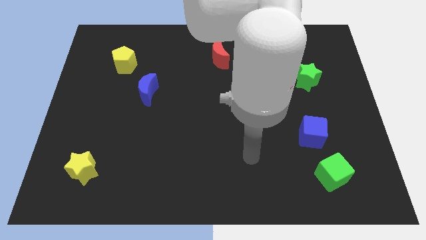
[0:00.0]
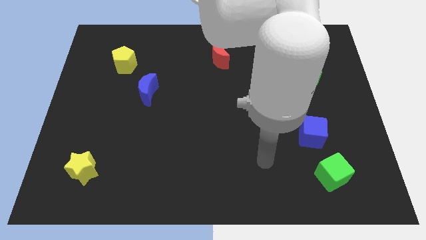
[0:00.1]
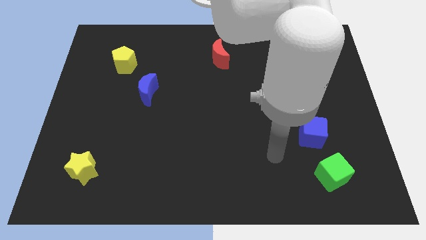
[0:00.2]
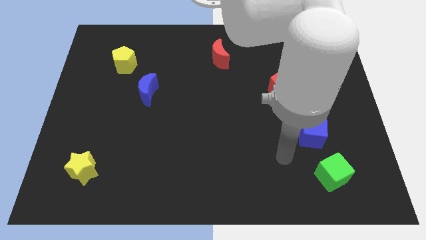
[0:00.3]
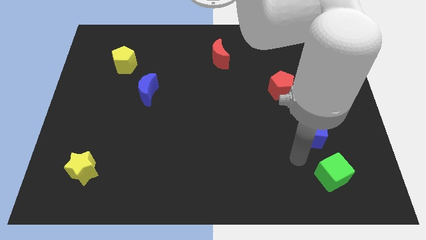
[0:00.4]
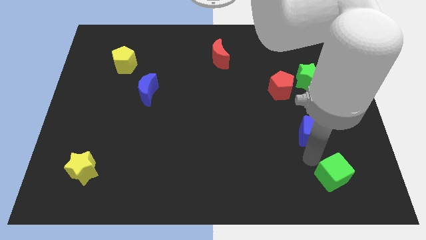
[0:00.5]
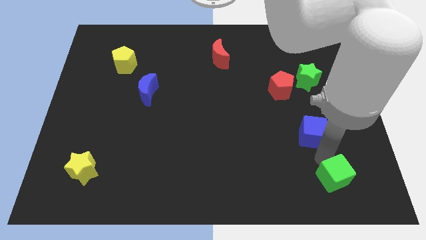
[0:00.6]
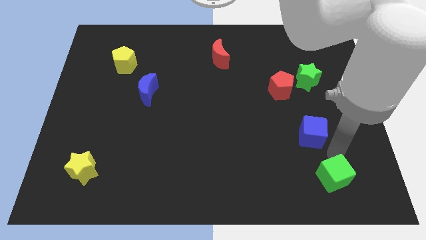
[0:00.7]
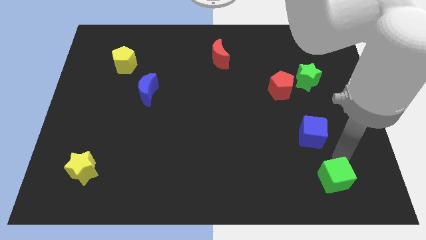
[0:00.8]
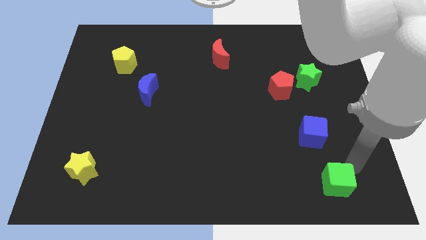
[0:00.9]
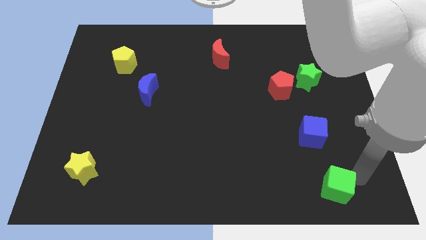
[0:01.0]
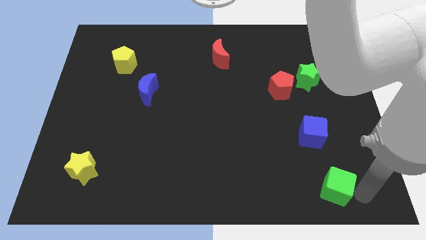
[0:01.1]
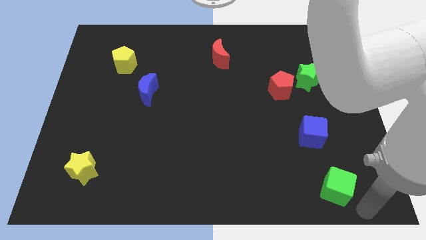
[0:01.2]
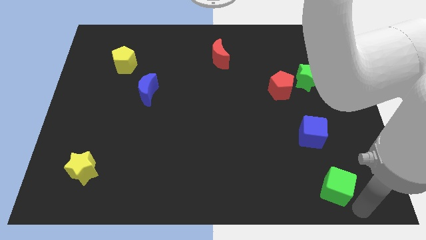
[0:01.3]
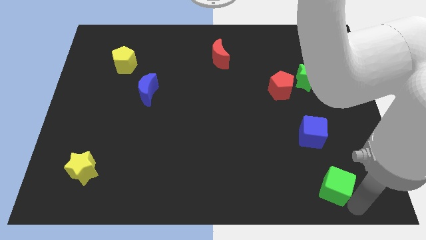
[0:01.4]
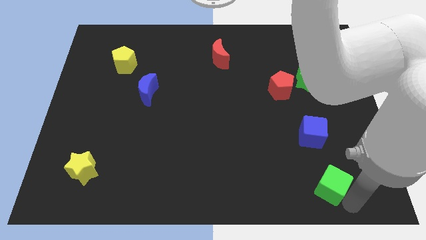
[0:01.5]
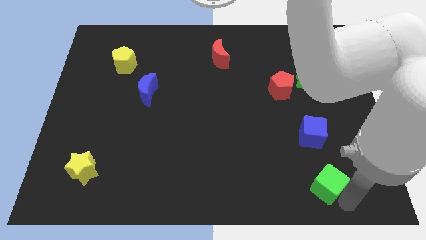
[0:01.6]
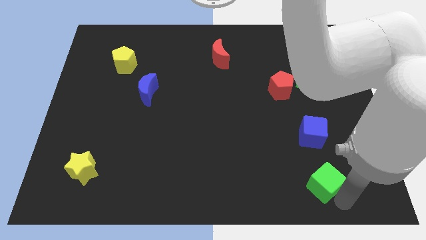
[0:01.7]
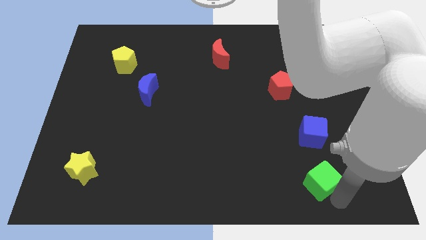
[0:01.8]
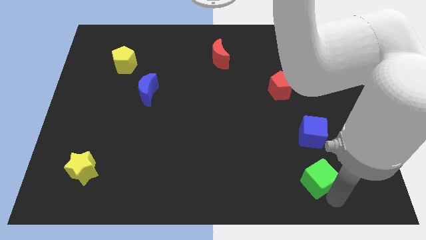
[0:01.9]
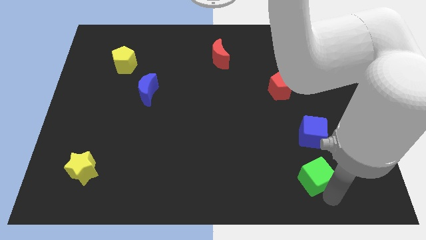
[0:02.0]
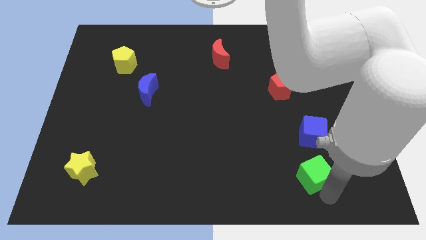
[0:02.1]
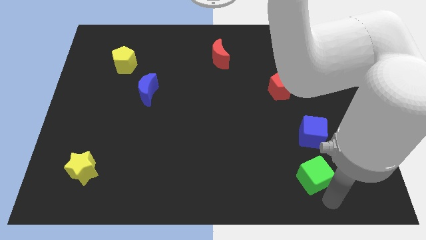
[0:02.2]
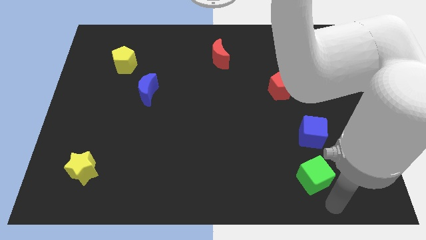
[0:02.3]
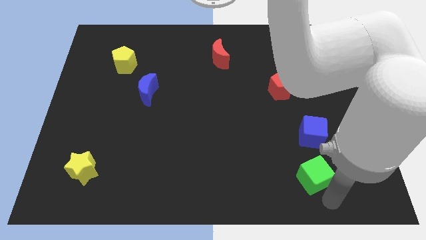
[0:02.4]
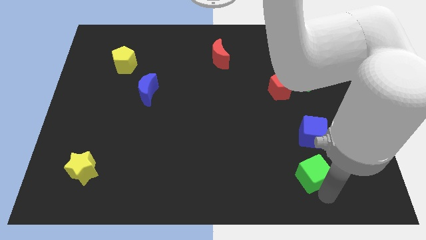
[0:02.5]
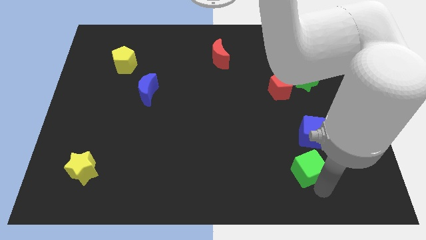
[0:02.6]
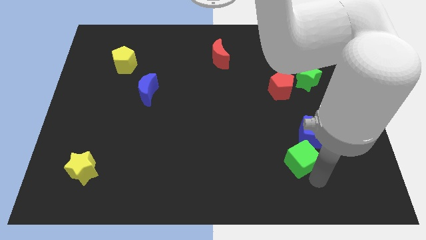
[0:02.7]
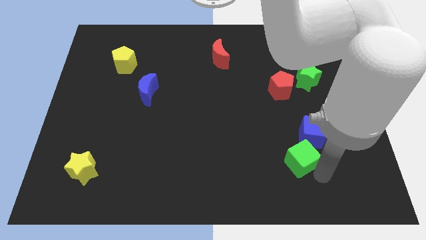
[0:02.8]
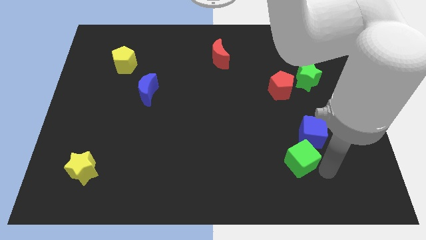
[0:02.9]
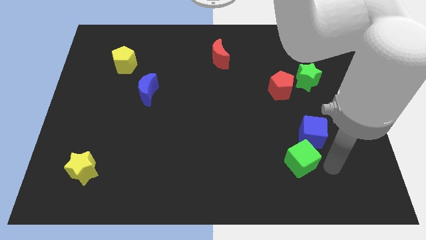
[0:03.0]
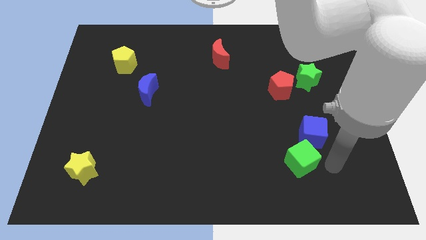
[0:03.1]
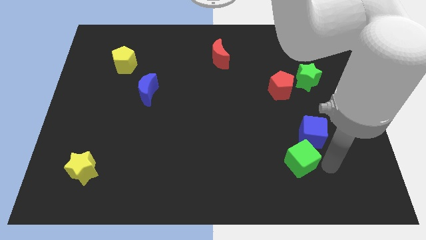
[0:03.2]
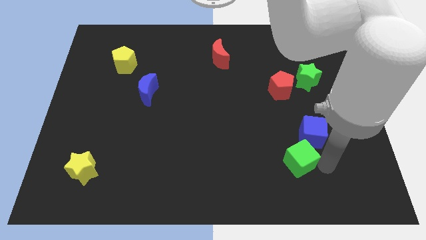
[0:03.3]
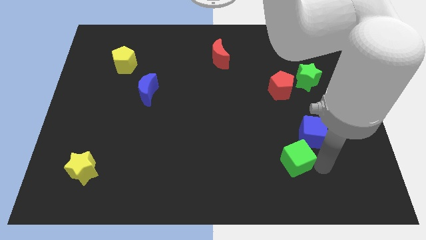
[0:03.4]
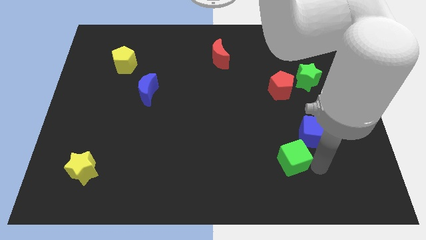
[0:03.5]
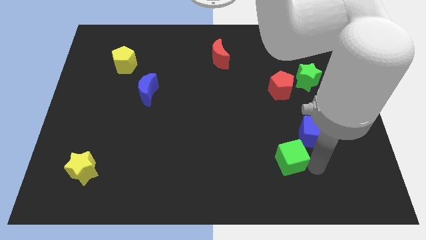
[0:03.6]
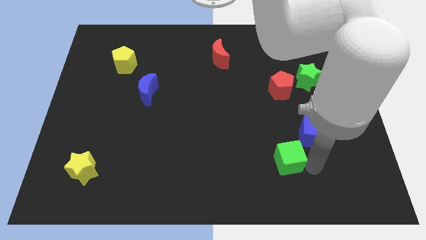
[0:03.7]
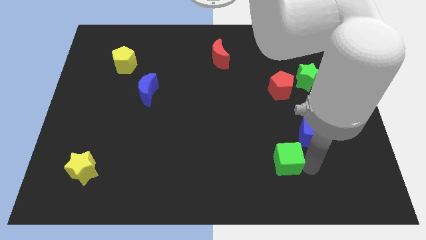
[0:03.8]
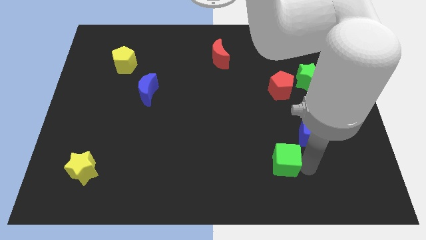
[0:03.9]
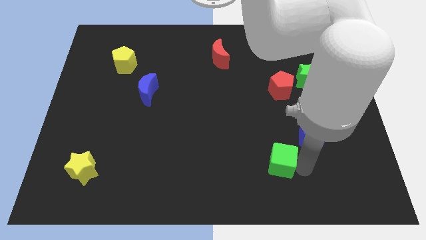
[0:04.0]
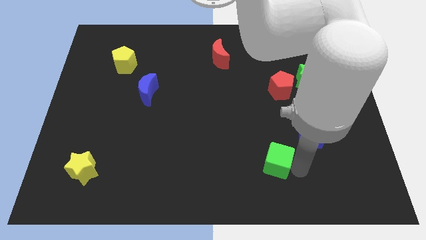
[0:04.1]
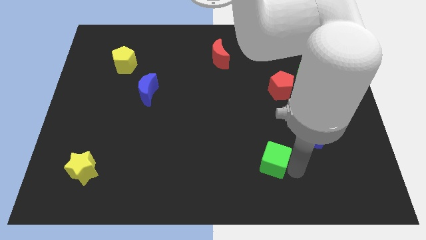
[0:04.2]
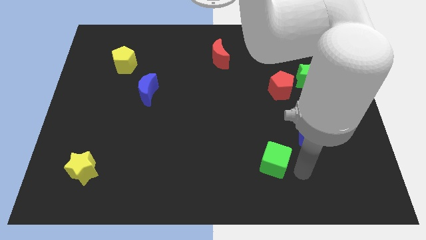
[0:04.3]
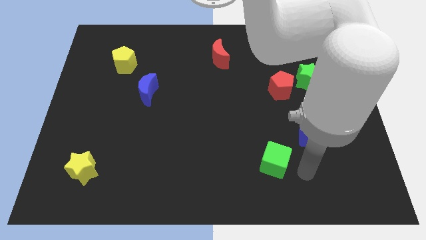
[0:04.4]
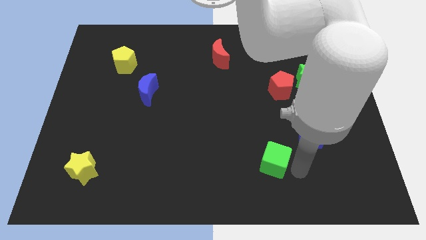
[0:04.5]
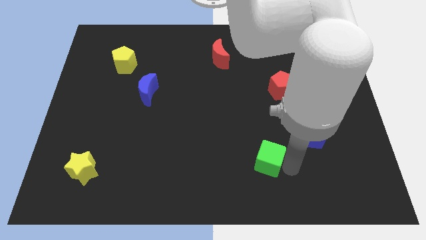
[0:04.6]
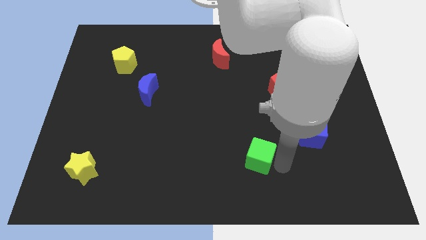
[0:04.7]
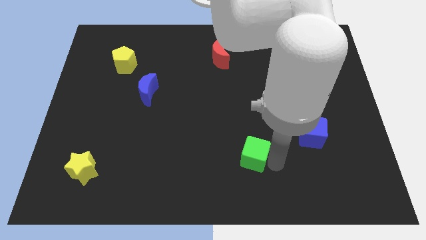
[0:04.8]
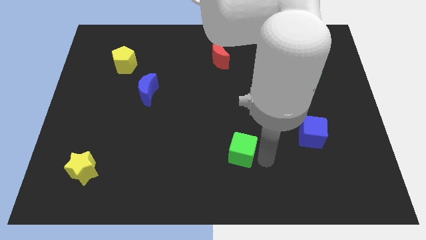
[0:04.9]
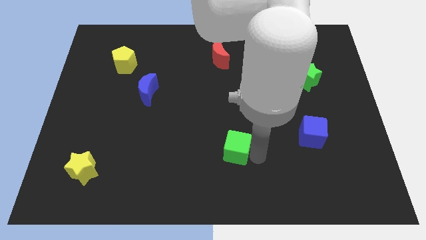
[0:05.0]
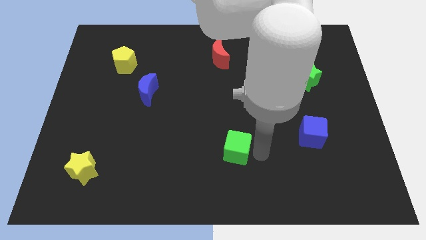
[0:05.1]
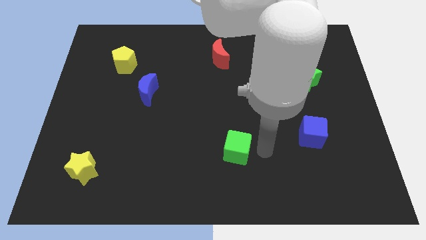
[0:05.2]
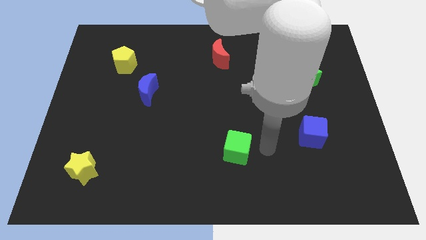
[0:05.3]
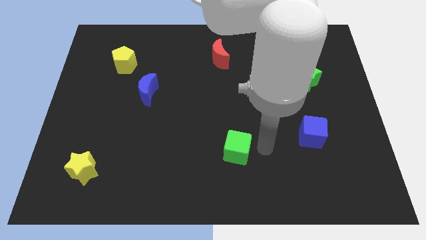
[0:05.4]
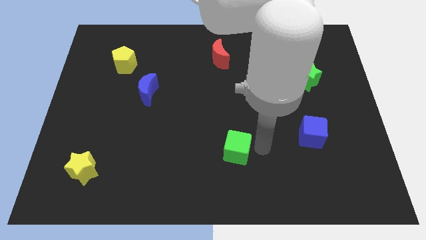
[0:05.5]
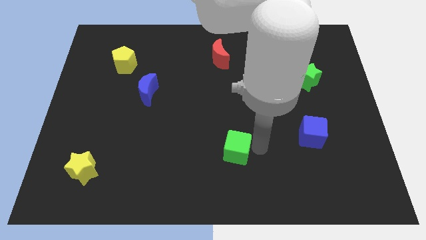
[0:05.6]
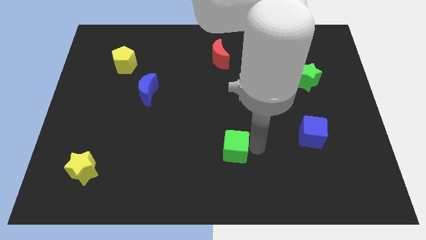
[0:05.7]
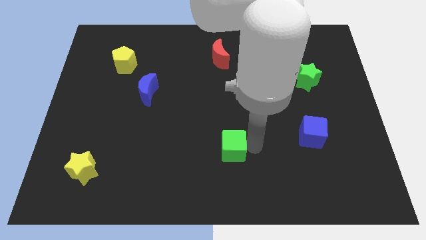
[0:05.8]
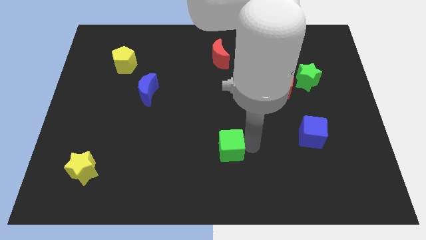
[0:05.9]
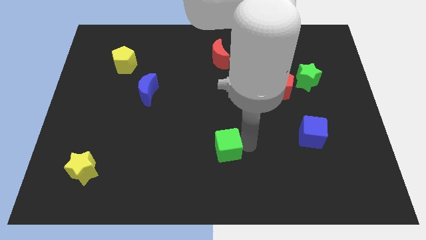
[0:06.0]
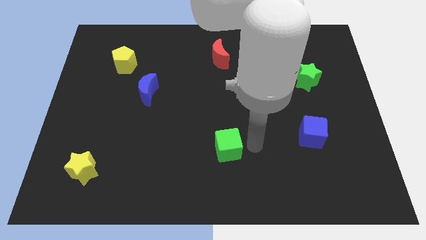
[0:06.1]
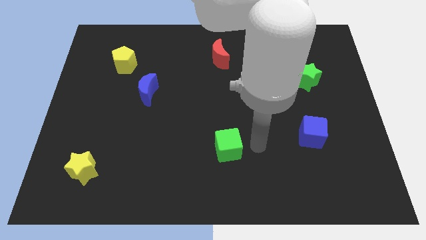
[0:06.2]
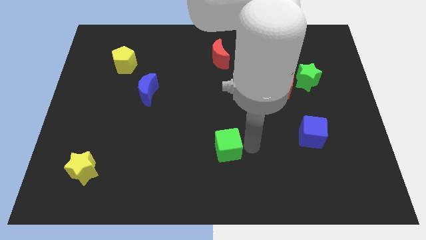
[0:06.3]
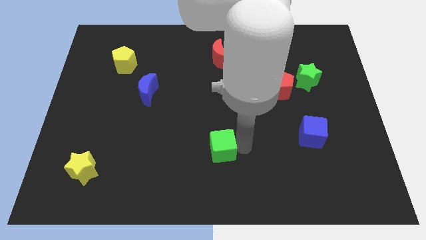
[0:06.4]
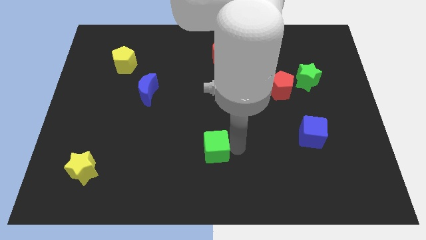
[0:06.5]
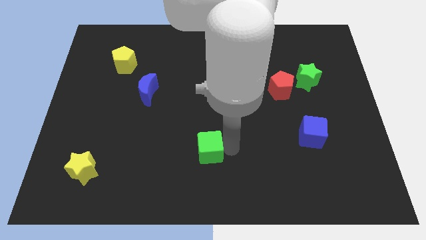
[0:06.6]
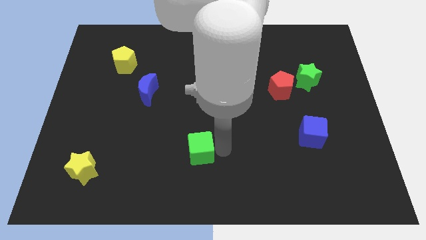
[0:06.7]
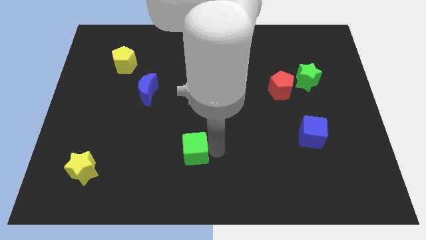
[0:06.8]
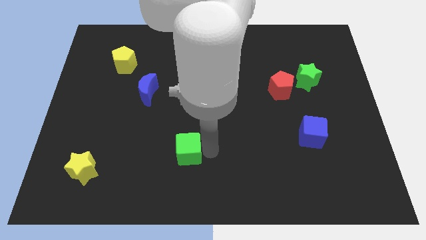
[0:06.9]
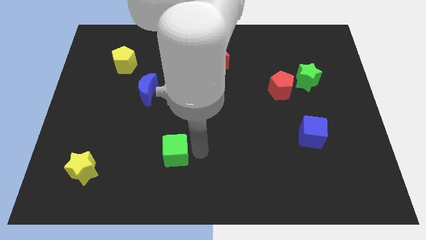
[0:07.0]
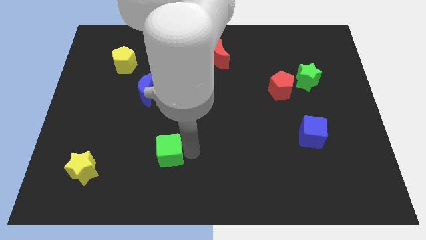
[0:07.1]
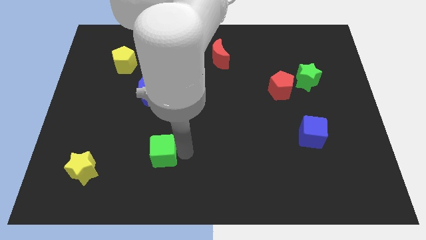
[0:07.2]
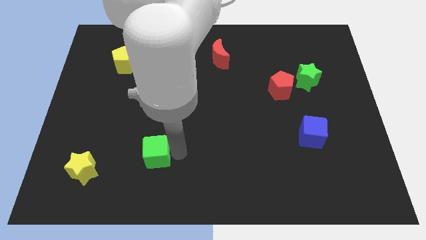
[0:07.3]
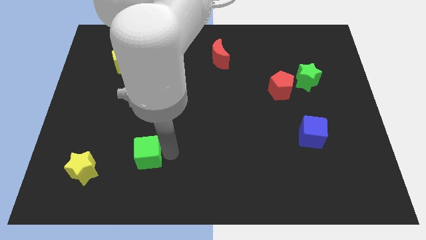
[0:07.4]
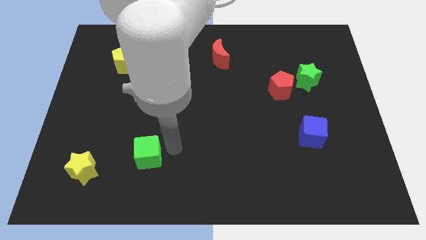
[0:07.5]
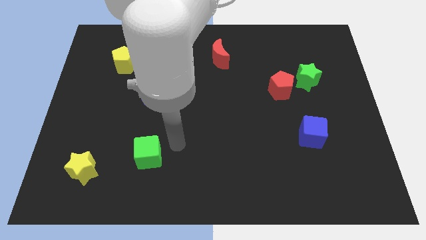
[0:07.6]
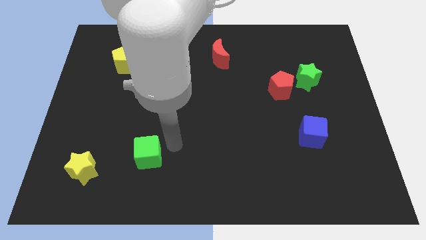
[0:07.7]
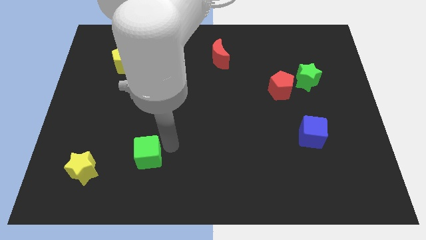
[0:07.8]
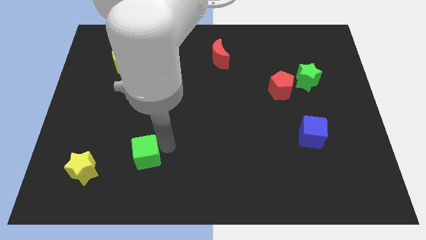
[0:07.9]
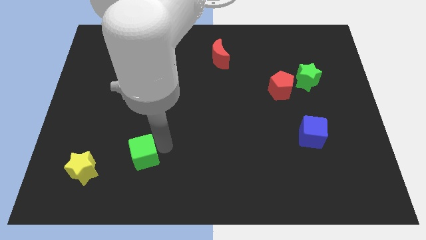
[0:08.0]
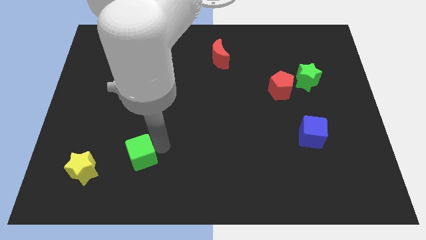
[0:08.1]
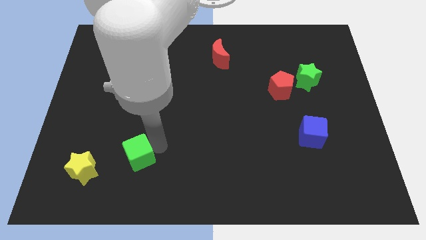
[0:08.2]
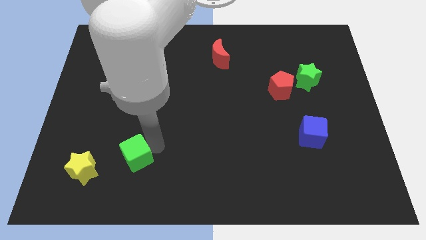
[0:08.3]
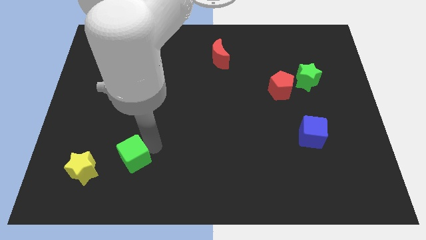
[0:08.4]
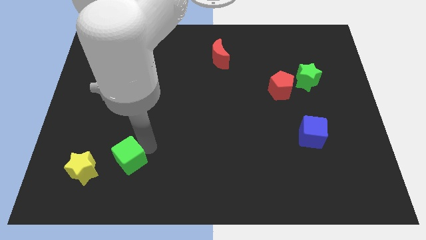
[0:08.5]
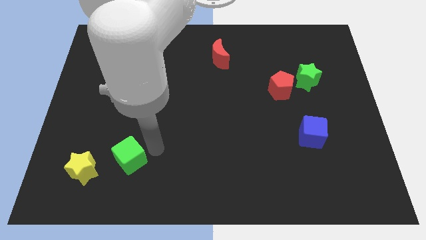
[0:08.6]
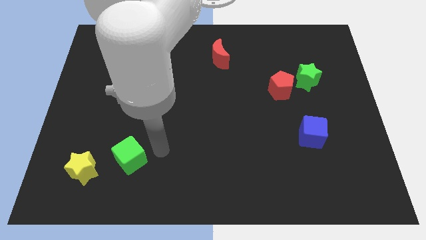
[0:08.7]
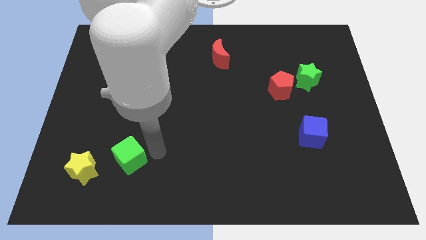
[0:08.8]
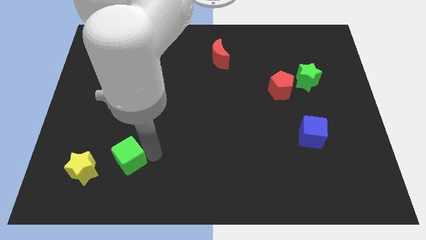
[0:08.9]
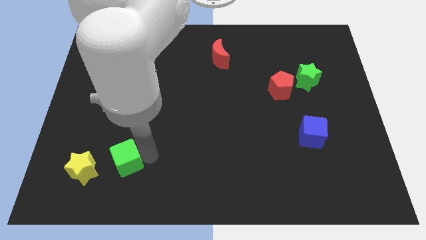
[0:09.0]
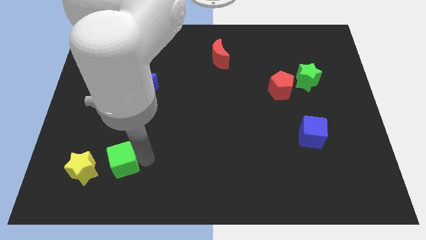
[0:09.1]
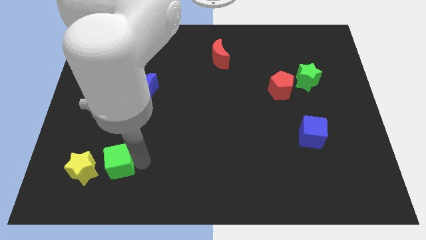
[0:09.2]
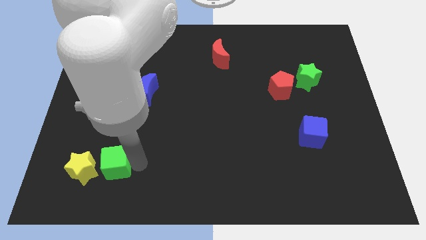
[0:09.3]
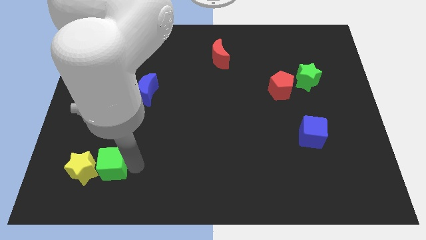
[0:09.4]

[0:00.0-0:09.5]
put the green cube to the yellow star
